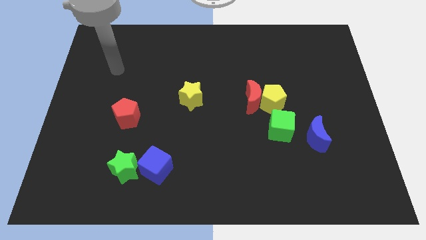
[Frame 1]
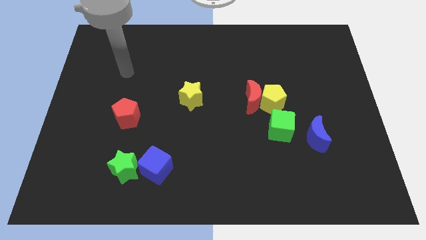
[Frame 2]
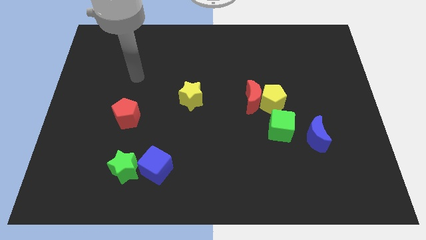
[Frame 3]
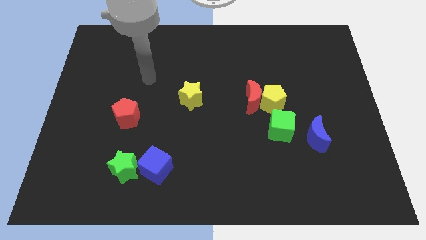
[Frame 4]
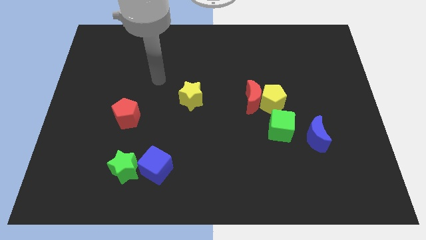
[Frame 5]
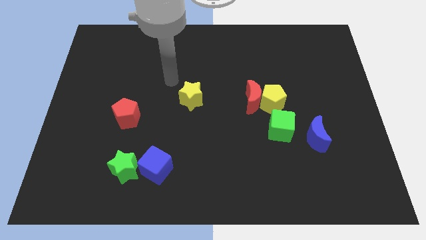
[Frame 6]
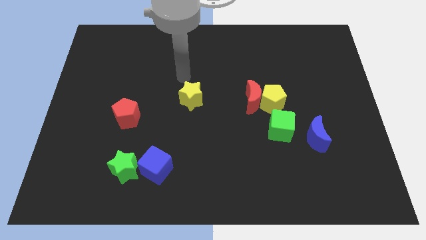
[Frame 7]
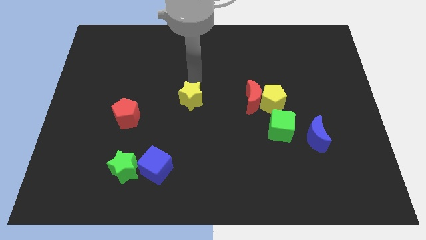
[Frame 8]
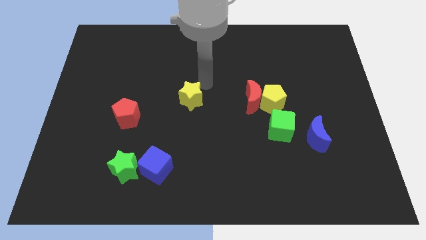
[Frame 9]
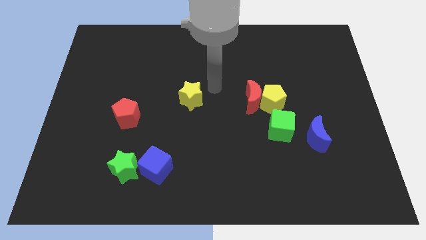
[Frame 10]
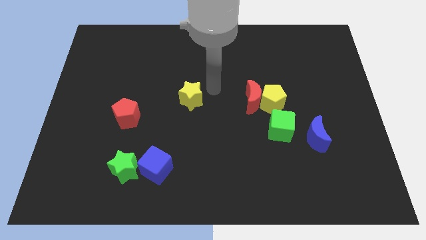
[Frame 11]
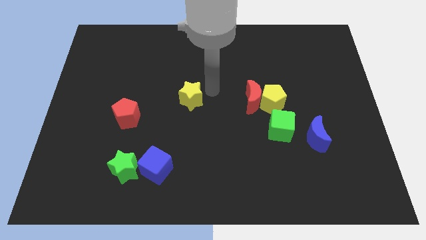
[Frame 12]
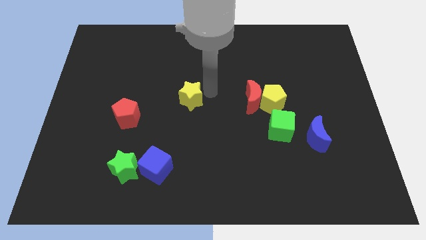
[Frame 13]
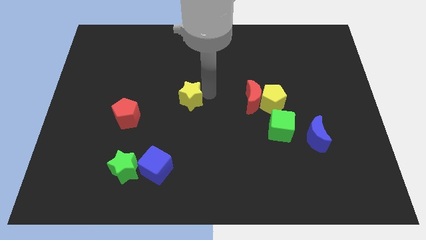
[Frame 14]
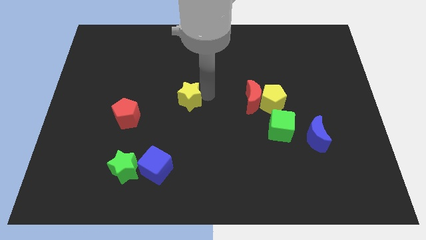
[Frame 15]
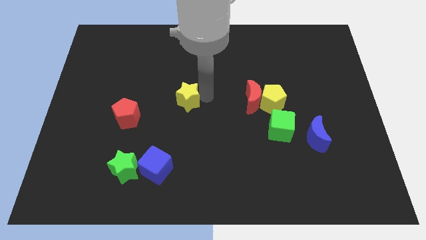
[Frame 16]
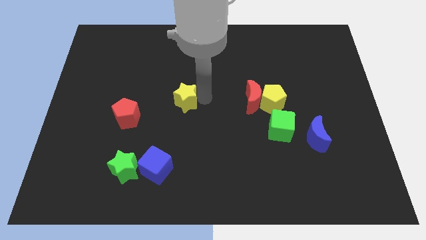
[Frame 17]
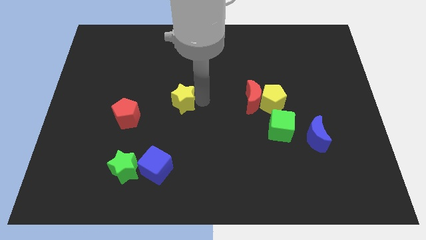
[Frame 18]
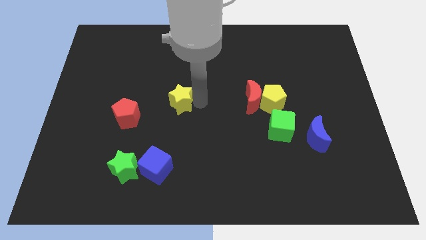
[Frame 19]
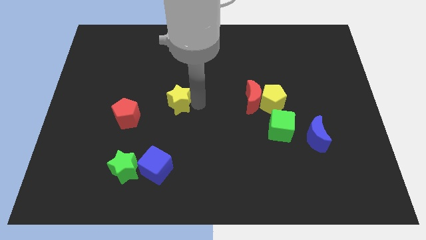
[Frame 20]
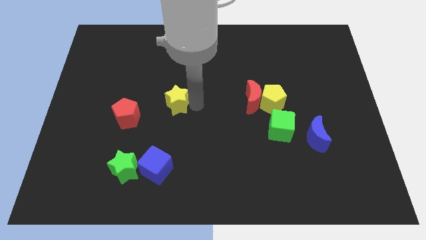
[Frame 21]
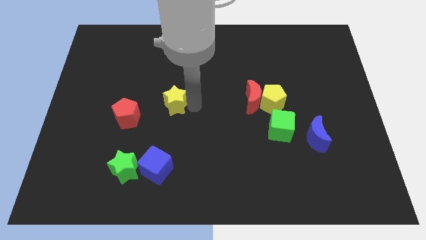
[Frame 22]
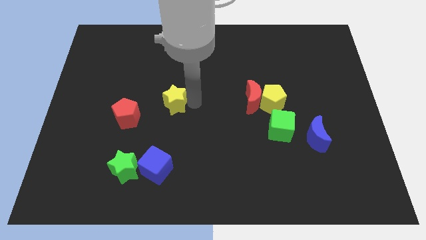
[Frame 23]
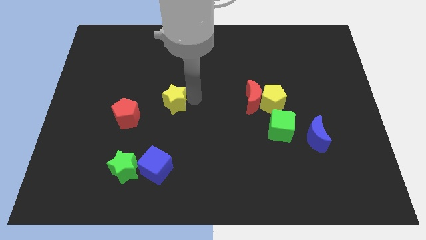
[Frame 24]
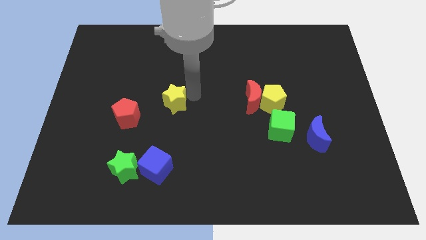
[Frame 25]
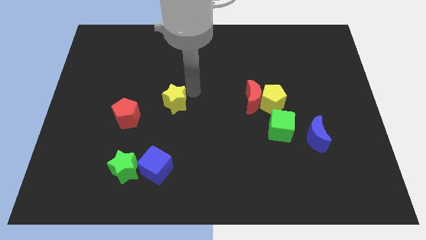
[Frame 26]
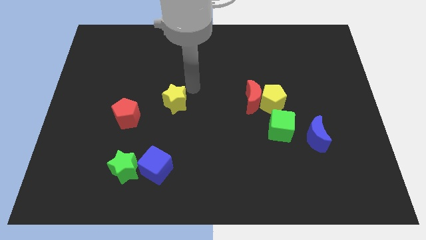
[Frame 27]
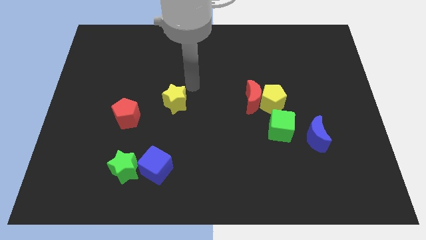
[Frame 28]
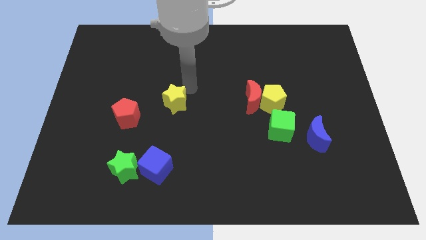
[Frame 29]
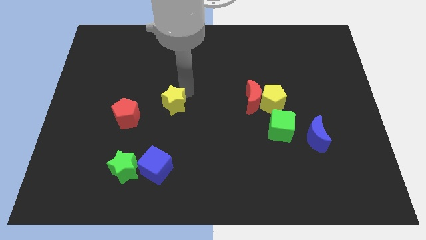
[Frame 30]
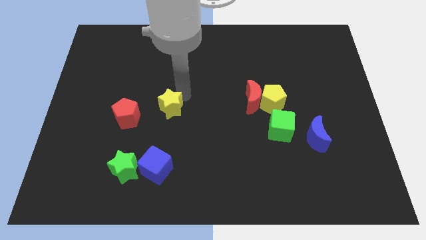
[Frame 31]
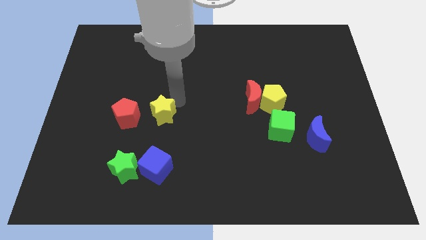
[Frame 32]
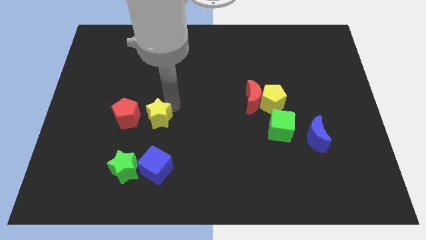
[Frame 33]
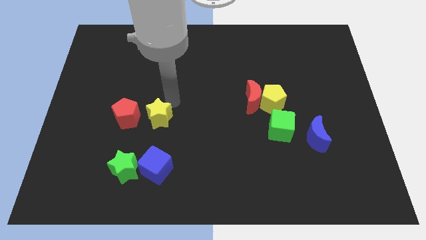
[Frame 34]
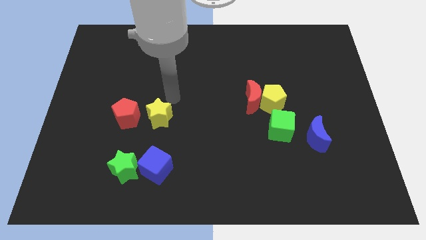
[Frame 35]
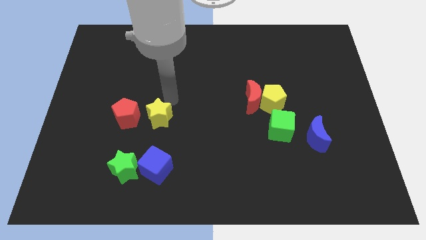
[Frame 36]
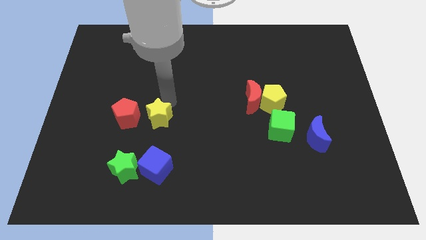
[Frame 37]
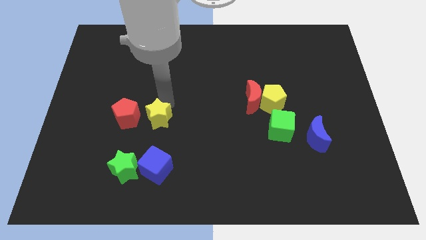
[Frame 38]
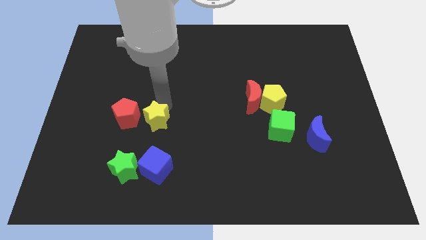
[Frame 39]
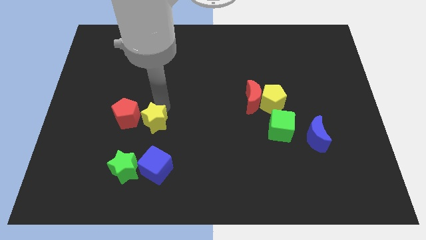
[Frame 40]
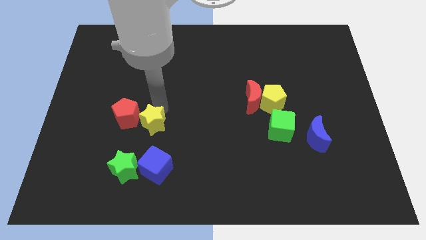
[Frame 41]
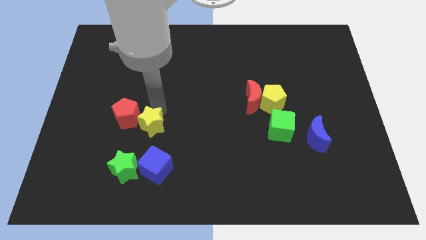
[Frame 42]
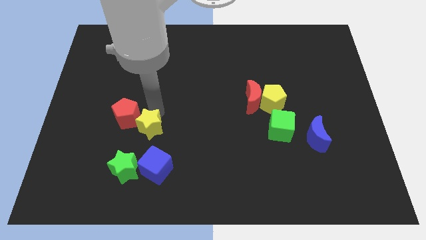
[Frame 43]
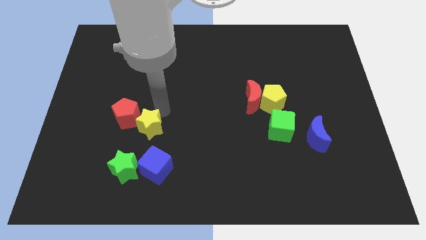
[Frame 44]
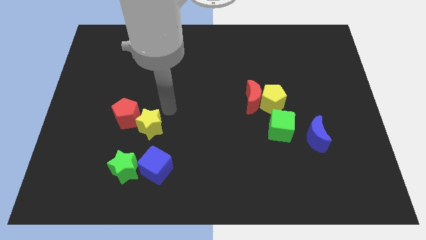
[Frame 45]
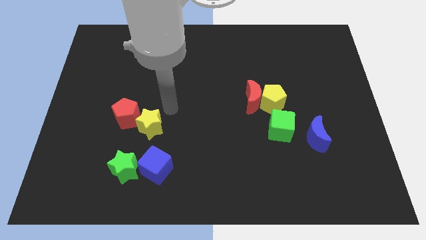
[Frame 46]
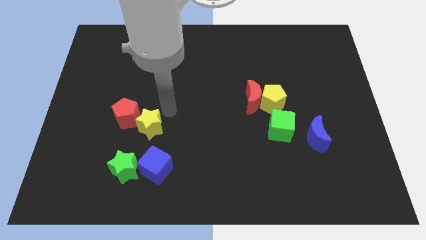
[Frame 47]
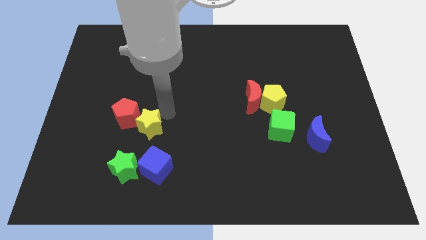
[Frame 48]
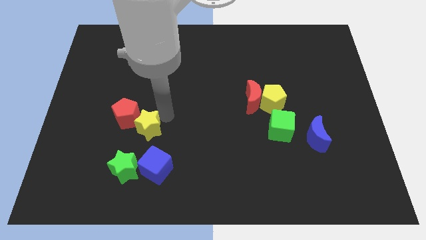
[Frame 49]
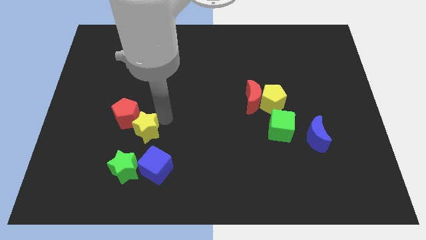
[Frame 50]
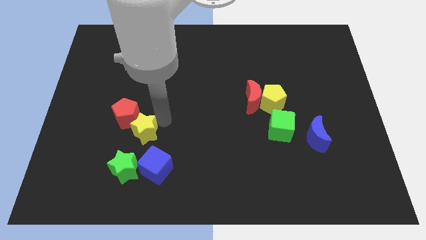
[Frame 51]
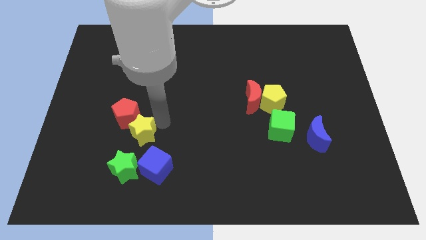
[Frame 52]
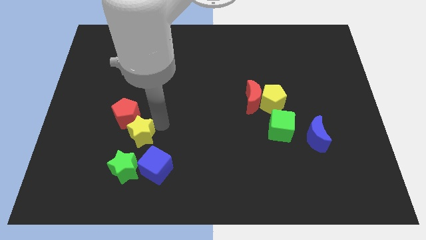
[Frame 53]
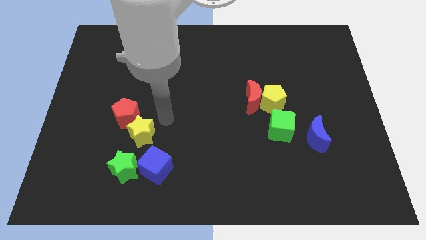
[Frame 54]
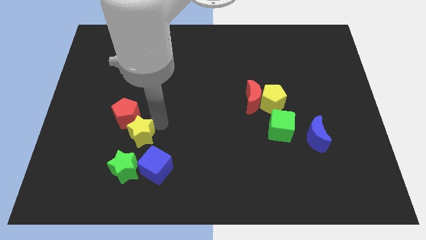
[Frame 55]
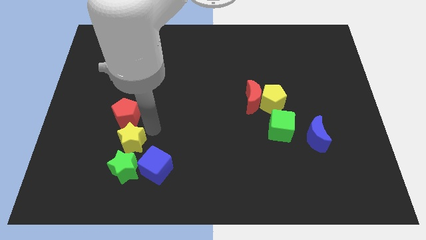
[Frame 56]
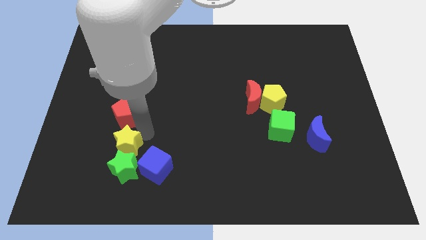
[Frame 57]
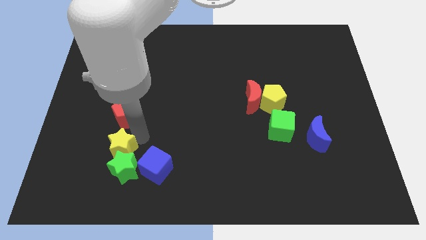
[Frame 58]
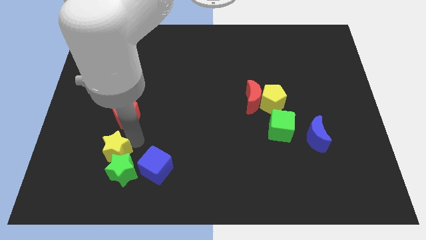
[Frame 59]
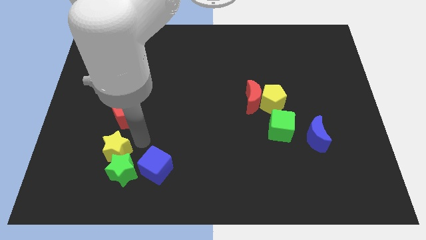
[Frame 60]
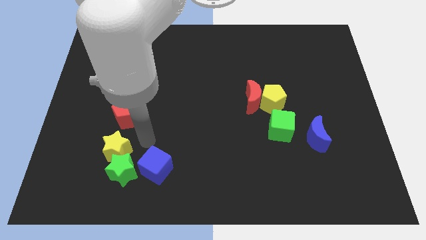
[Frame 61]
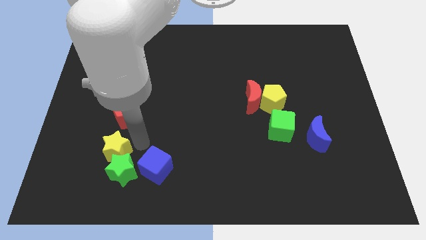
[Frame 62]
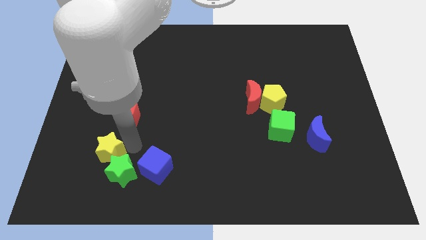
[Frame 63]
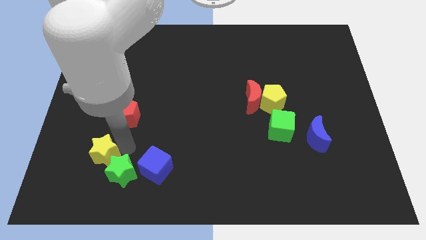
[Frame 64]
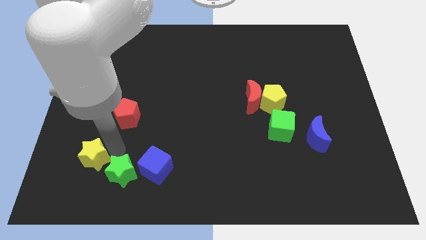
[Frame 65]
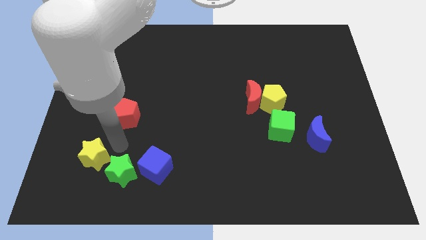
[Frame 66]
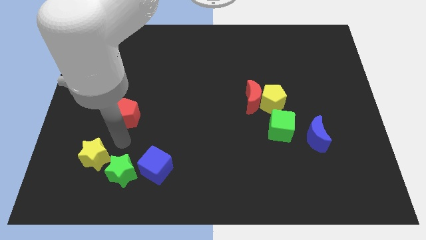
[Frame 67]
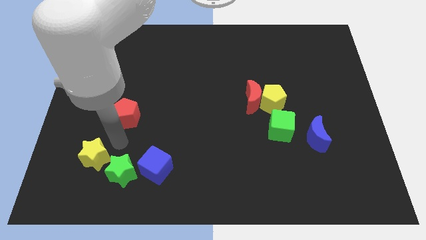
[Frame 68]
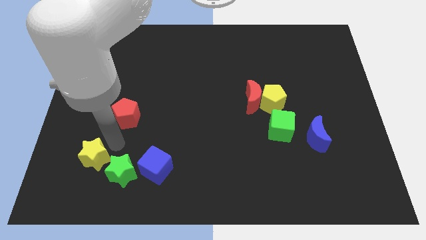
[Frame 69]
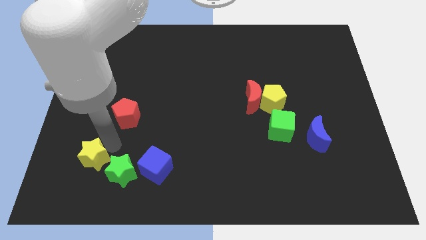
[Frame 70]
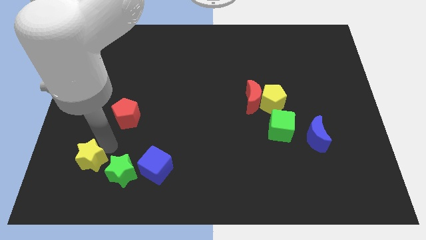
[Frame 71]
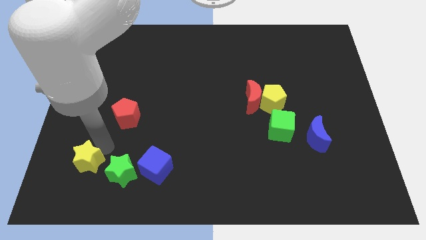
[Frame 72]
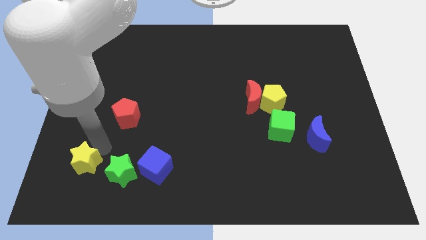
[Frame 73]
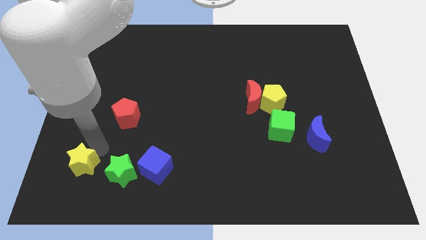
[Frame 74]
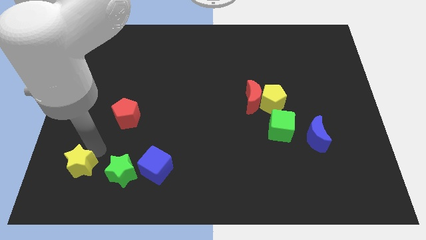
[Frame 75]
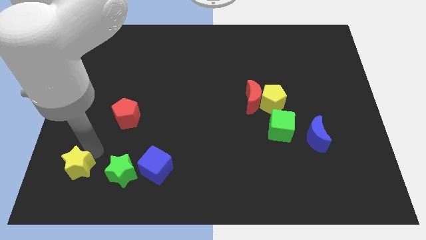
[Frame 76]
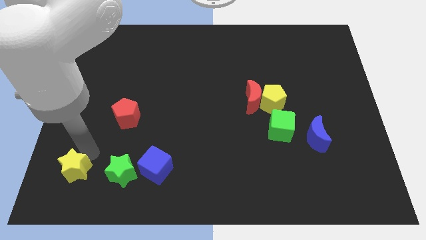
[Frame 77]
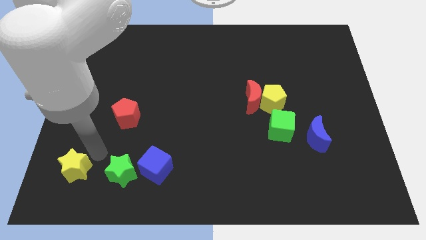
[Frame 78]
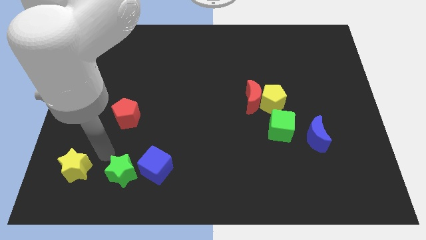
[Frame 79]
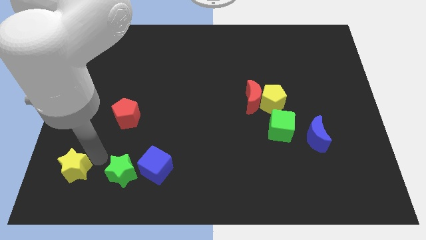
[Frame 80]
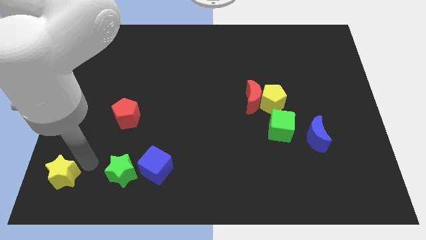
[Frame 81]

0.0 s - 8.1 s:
push the yellow star to the bottom left corner

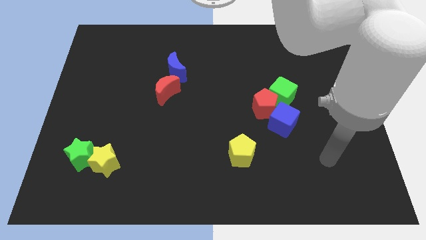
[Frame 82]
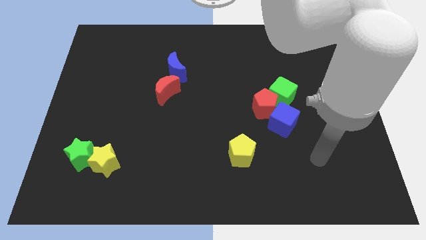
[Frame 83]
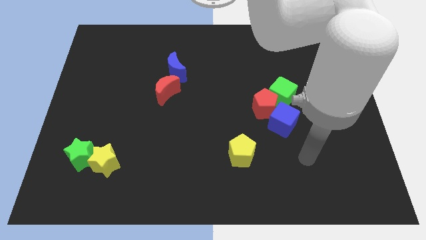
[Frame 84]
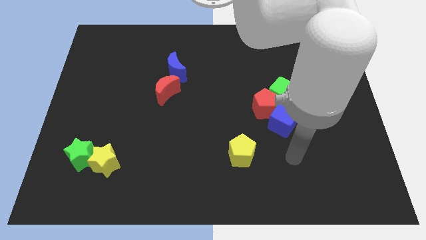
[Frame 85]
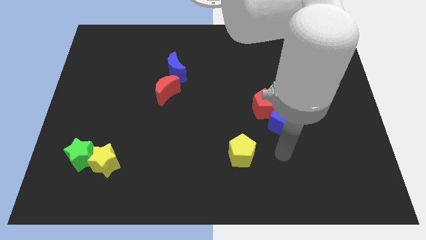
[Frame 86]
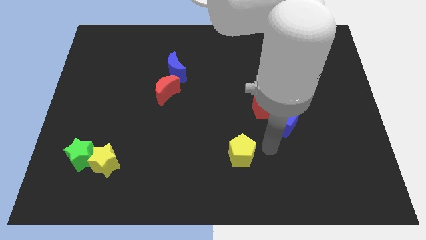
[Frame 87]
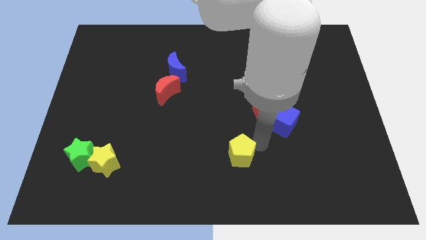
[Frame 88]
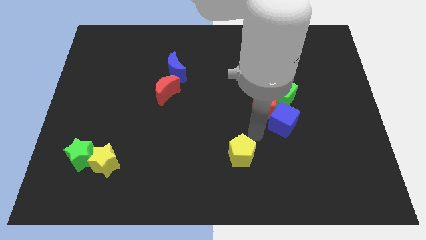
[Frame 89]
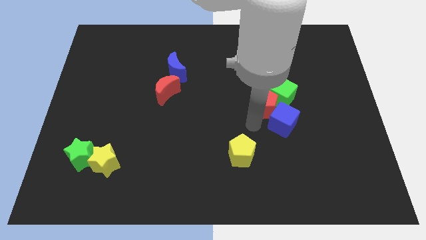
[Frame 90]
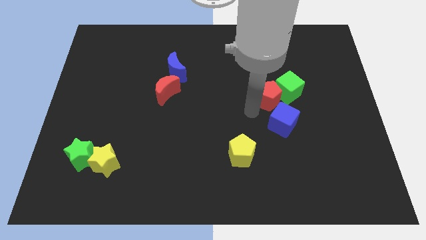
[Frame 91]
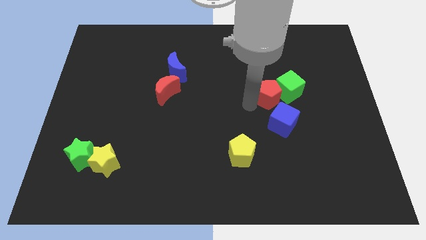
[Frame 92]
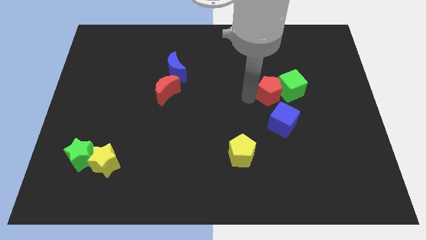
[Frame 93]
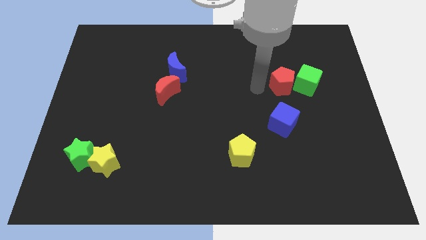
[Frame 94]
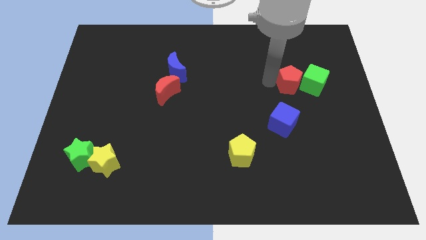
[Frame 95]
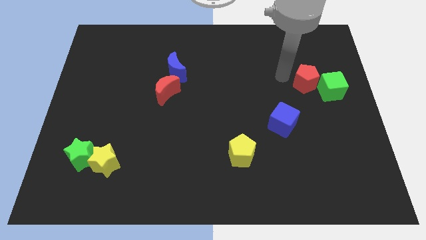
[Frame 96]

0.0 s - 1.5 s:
put the green cube to the right side
